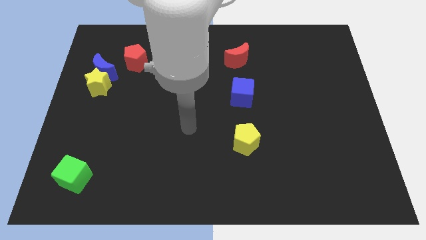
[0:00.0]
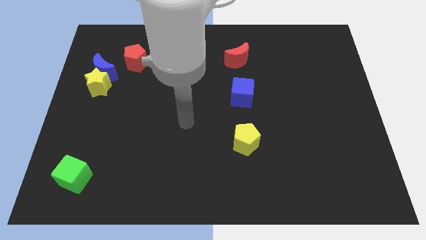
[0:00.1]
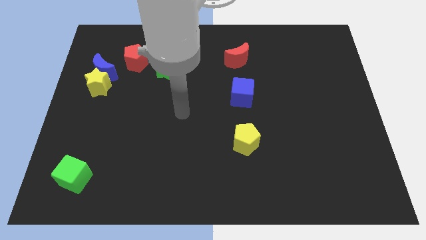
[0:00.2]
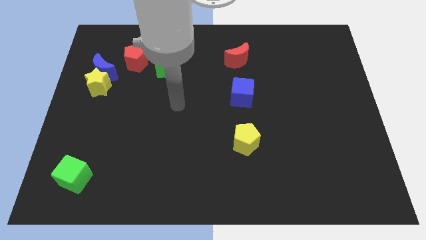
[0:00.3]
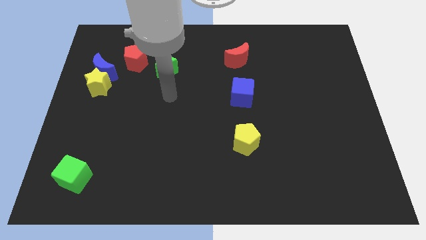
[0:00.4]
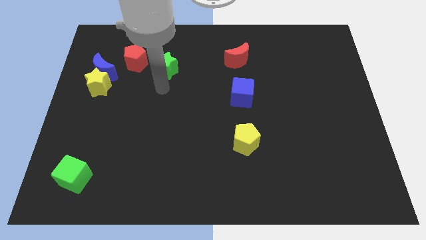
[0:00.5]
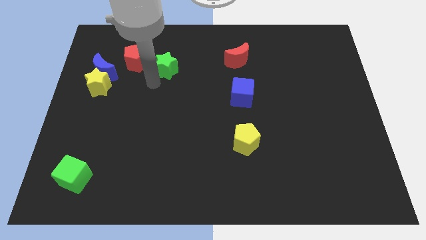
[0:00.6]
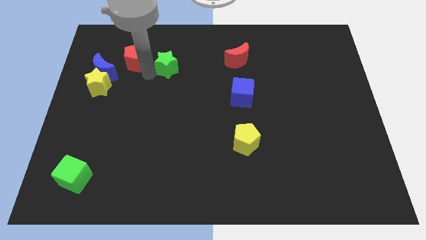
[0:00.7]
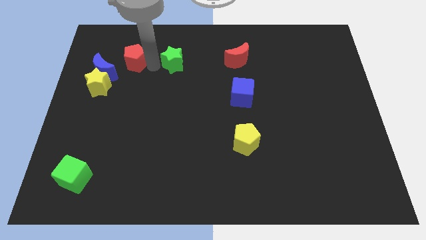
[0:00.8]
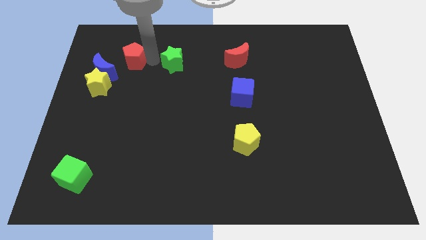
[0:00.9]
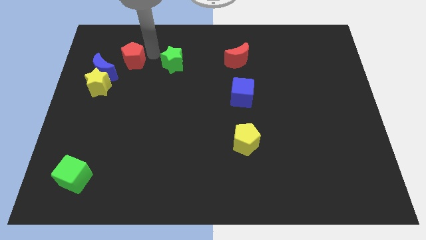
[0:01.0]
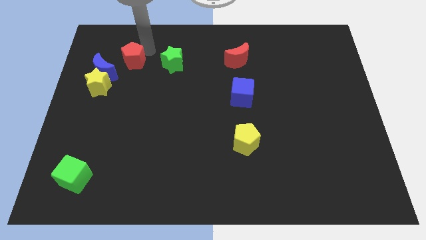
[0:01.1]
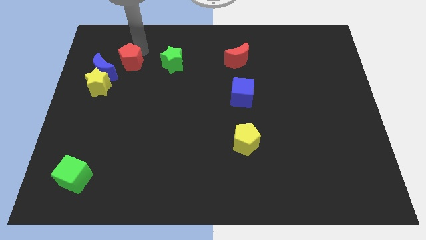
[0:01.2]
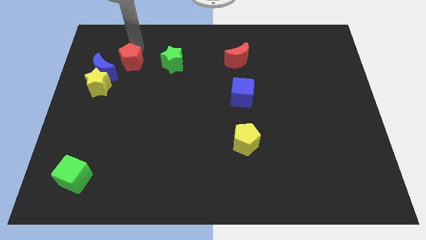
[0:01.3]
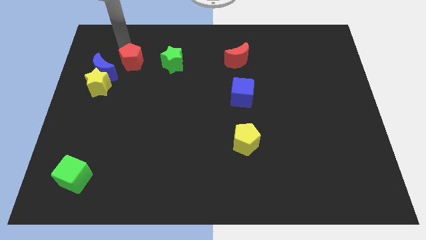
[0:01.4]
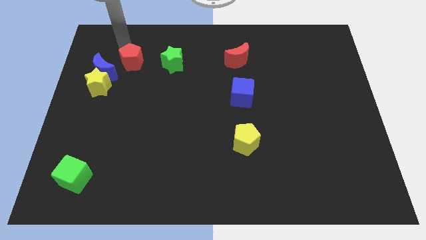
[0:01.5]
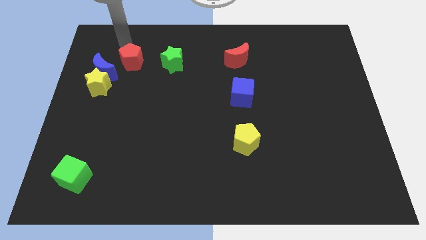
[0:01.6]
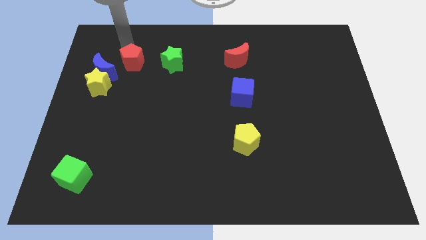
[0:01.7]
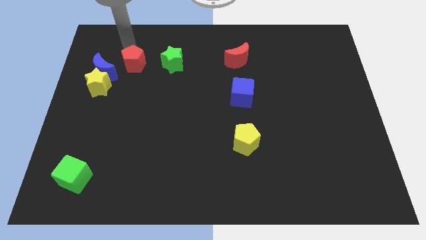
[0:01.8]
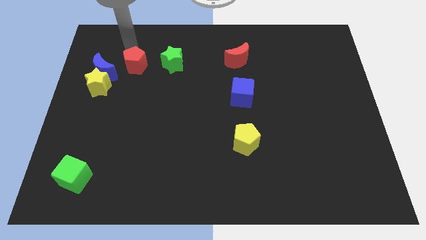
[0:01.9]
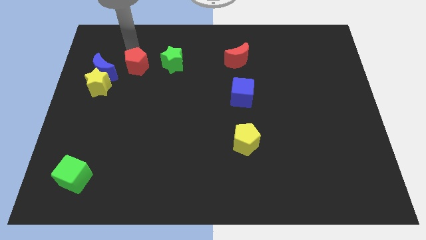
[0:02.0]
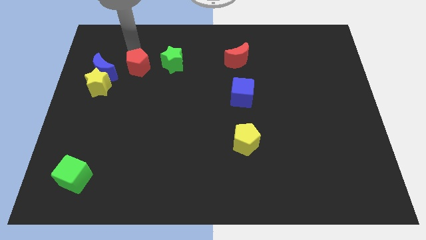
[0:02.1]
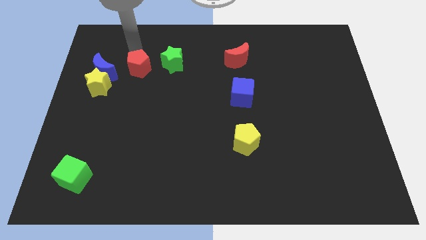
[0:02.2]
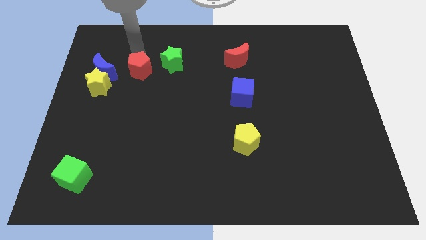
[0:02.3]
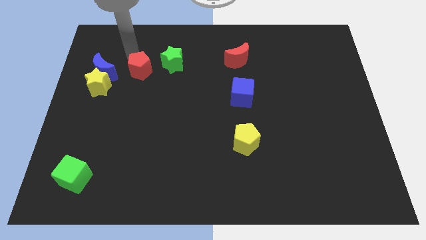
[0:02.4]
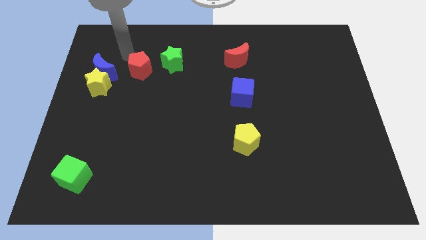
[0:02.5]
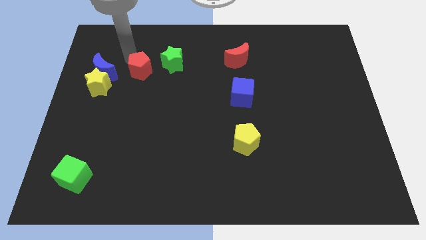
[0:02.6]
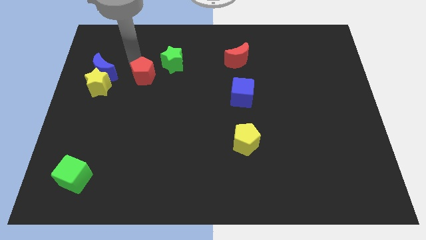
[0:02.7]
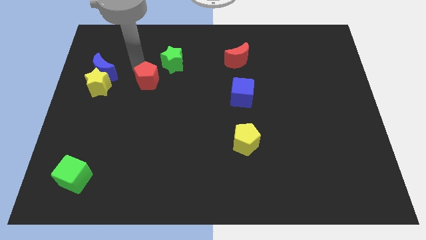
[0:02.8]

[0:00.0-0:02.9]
push the red pentagon a little down and to the right diagonally

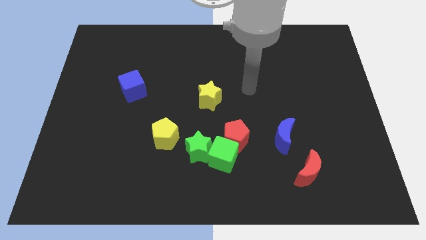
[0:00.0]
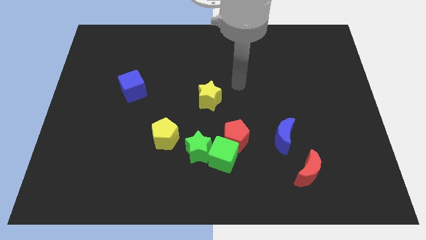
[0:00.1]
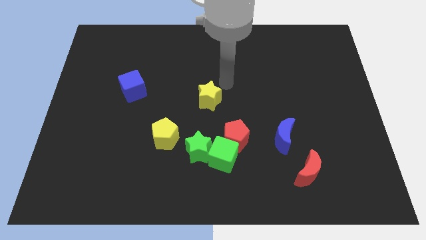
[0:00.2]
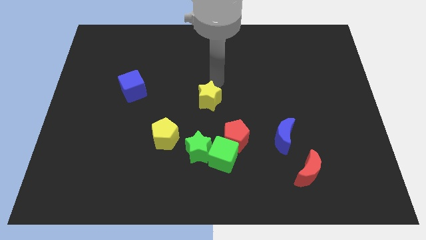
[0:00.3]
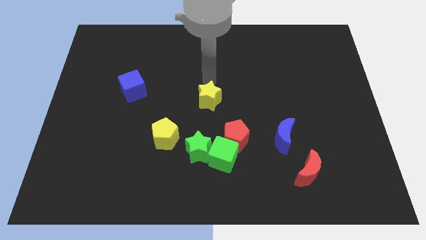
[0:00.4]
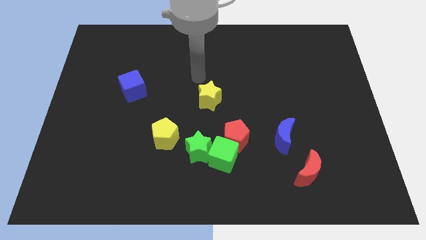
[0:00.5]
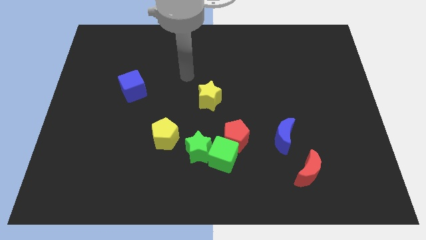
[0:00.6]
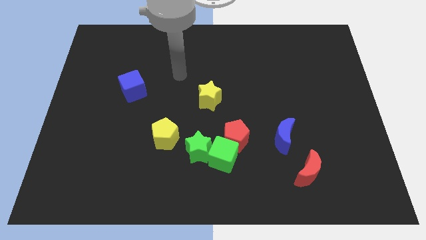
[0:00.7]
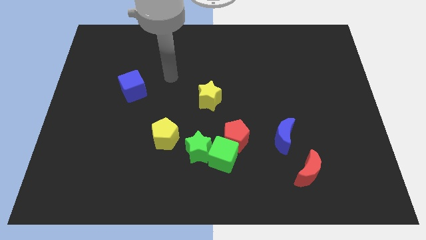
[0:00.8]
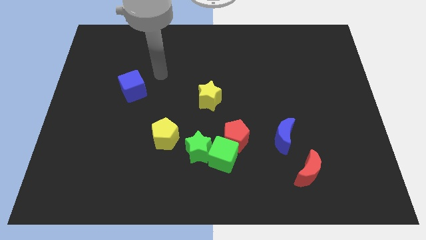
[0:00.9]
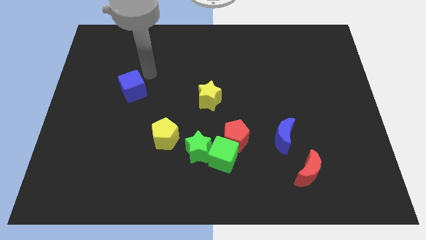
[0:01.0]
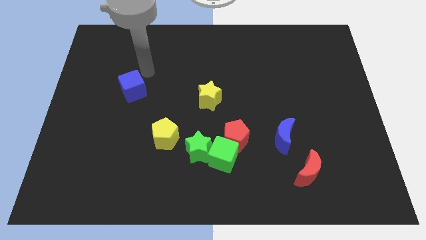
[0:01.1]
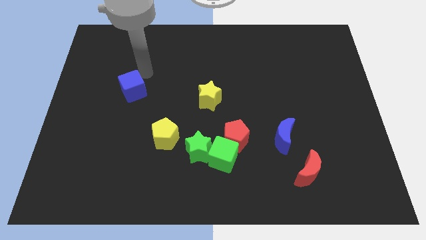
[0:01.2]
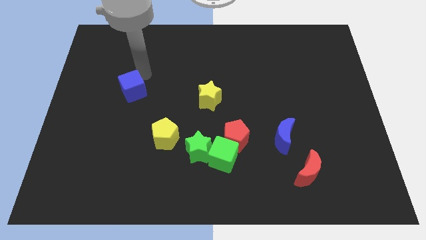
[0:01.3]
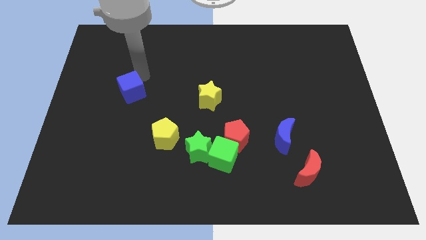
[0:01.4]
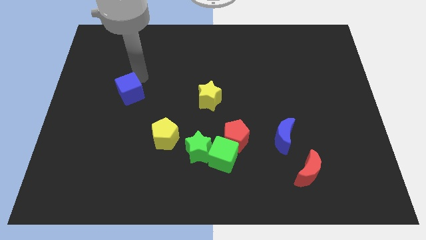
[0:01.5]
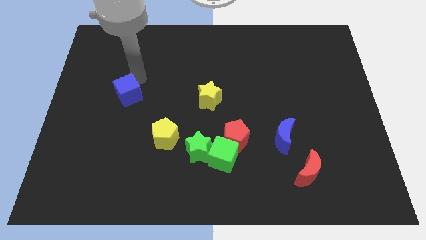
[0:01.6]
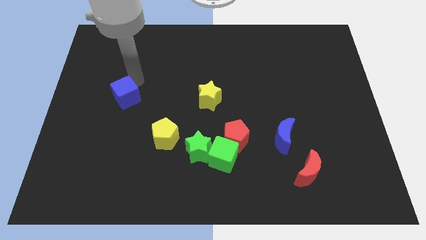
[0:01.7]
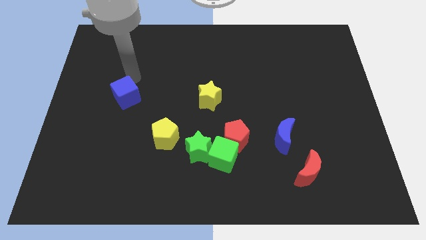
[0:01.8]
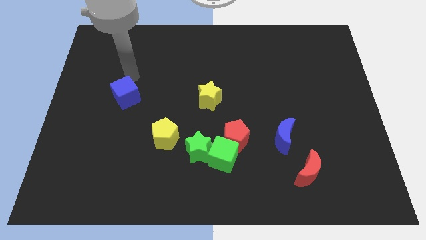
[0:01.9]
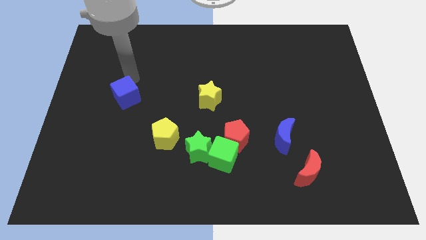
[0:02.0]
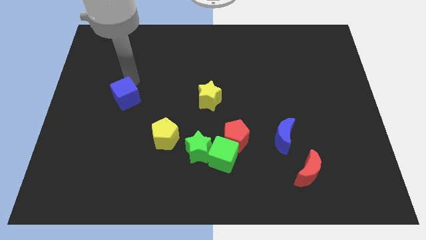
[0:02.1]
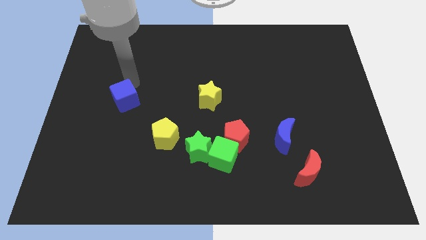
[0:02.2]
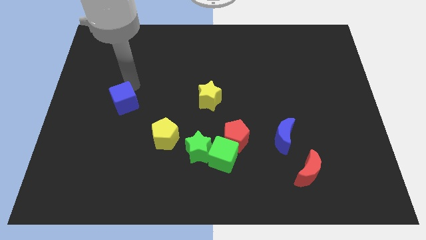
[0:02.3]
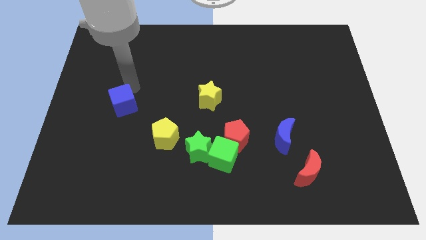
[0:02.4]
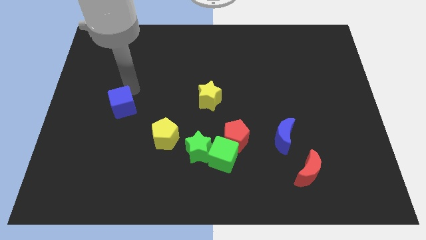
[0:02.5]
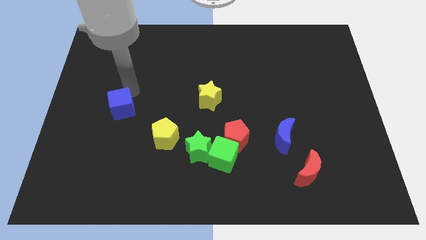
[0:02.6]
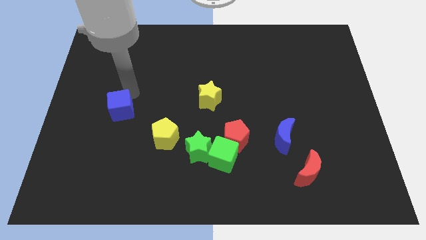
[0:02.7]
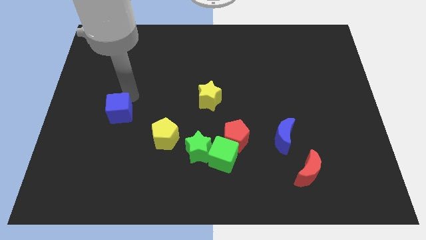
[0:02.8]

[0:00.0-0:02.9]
slide the blue cube slightly down

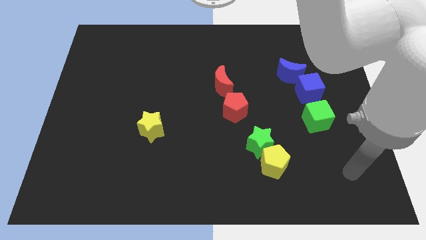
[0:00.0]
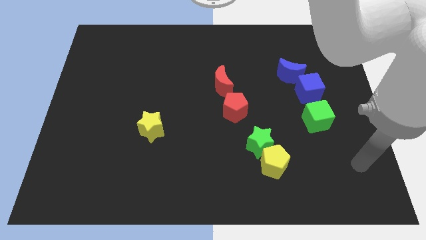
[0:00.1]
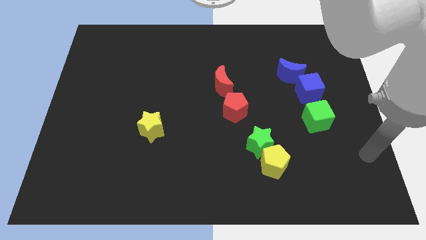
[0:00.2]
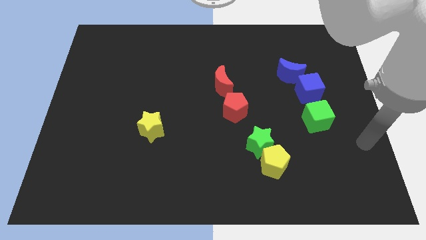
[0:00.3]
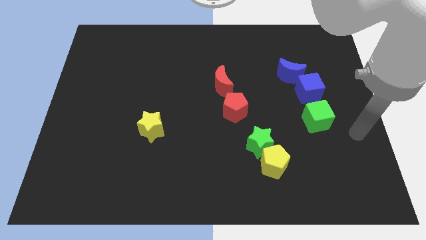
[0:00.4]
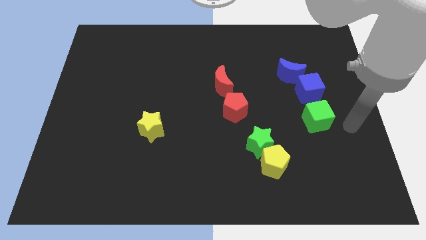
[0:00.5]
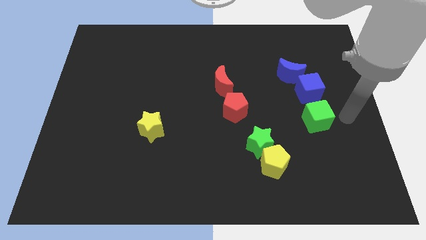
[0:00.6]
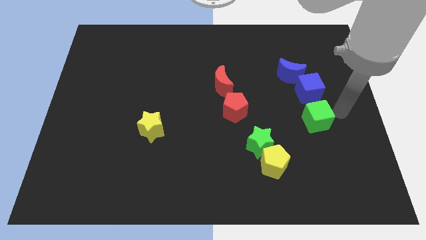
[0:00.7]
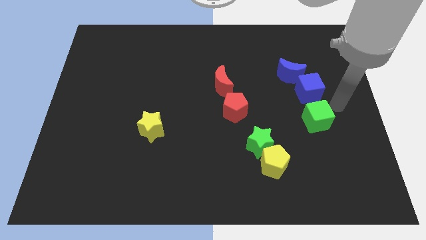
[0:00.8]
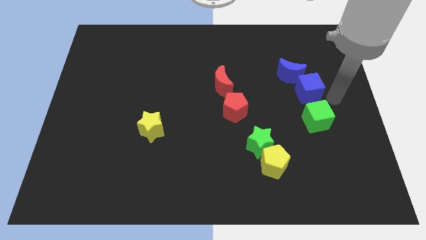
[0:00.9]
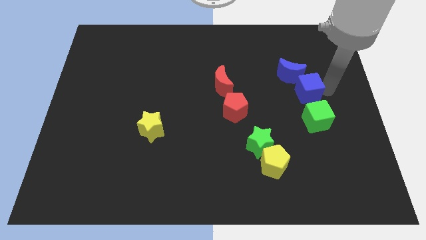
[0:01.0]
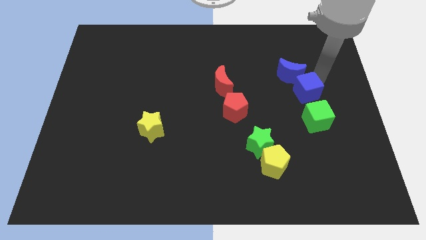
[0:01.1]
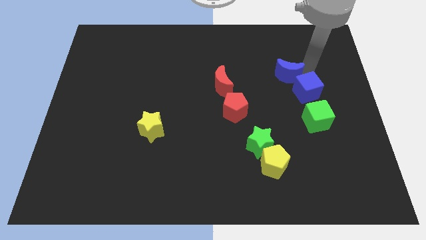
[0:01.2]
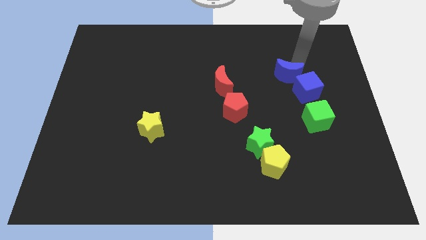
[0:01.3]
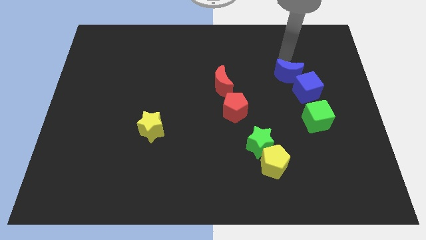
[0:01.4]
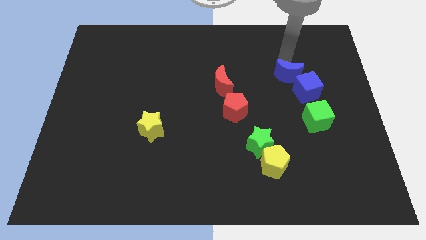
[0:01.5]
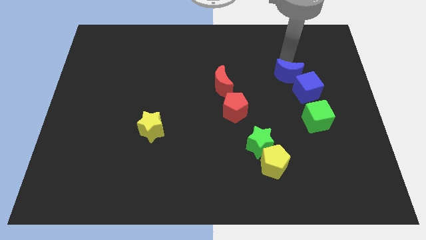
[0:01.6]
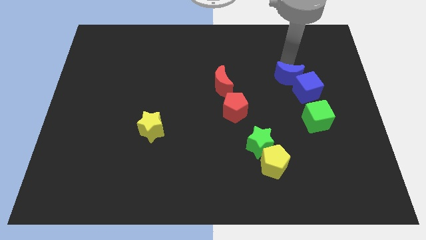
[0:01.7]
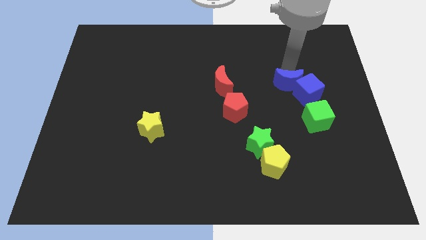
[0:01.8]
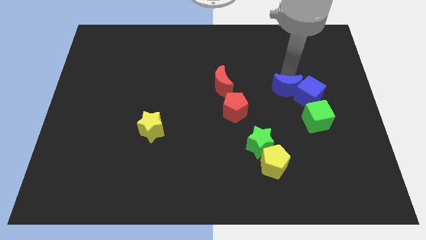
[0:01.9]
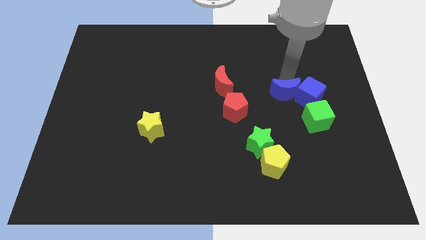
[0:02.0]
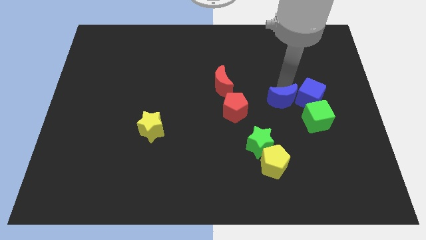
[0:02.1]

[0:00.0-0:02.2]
slightly slide the blue moon downwards

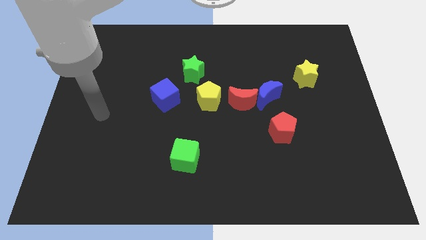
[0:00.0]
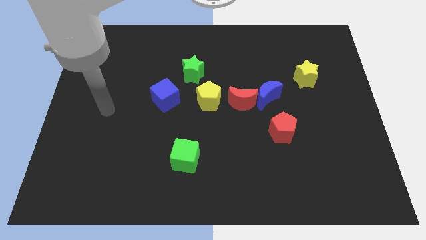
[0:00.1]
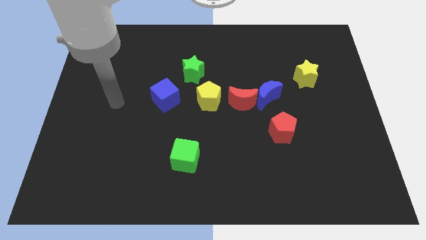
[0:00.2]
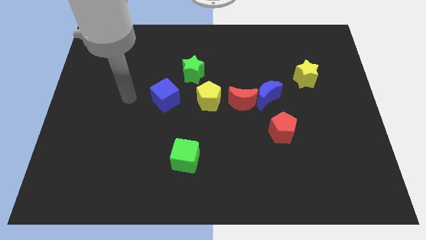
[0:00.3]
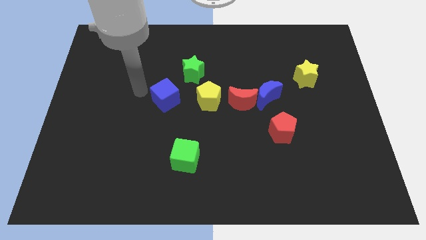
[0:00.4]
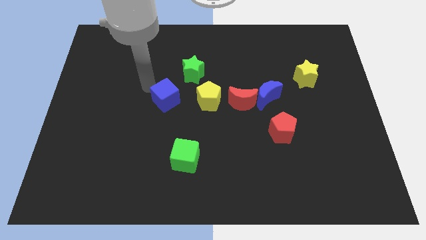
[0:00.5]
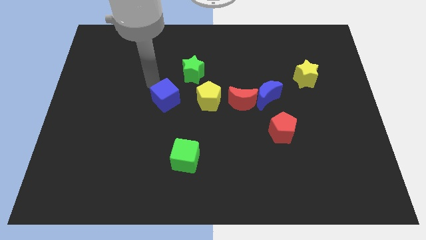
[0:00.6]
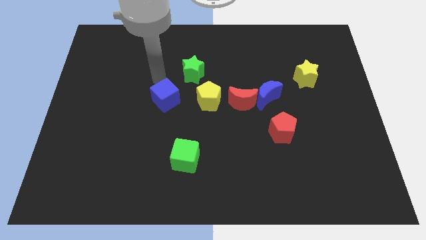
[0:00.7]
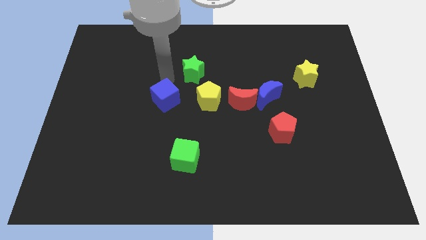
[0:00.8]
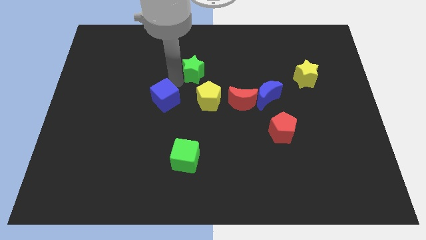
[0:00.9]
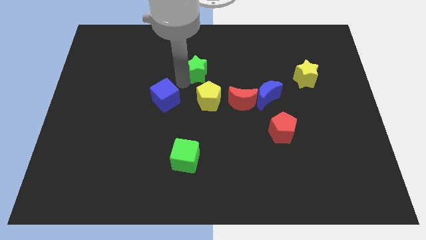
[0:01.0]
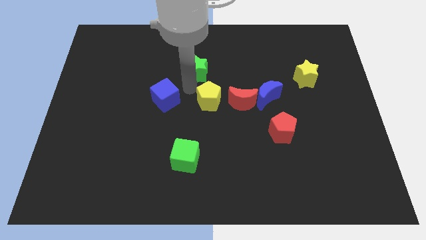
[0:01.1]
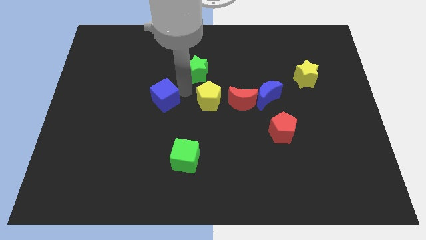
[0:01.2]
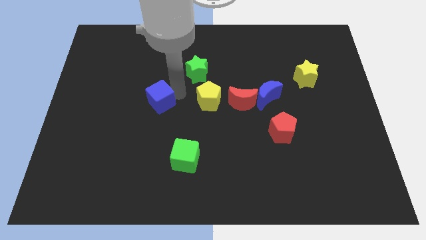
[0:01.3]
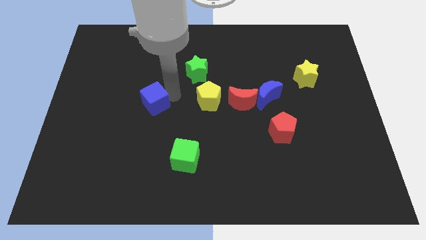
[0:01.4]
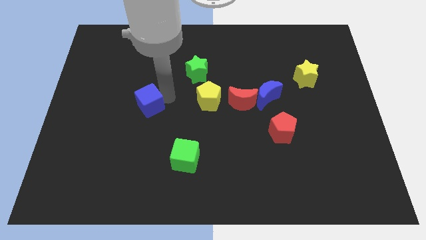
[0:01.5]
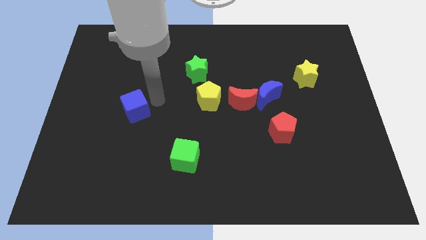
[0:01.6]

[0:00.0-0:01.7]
slightly push the blue cube diagonally downwards and to the left
